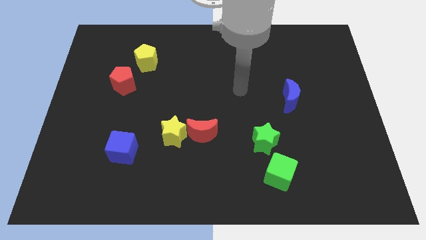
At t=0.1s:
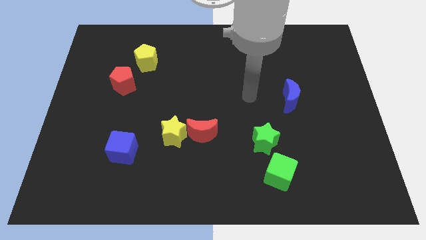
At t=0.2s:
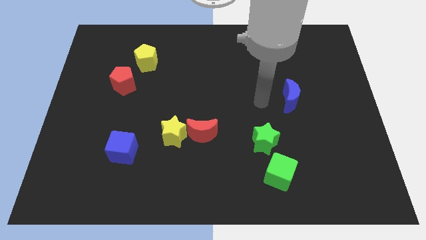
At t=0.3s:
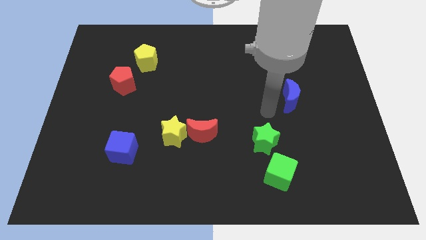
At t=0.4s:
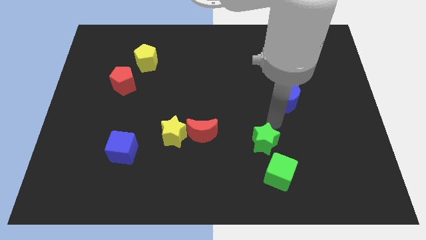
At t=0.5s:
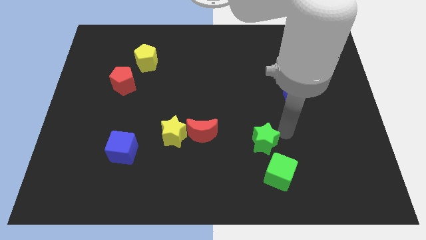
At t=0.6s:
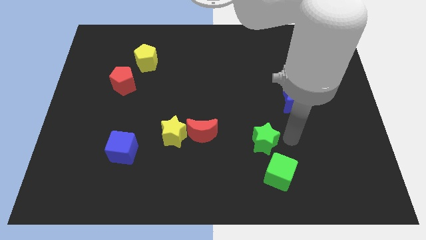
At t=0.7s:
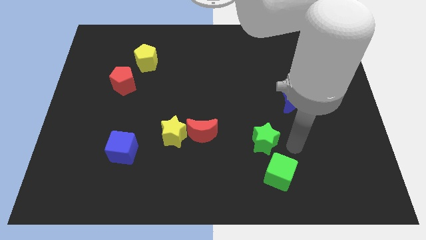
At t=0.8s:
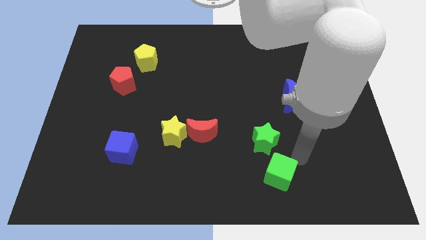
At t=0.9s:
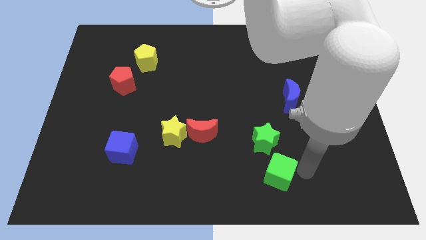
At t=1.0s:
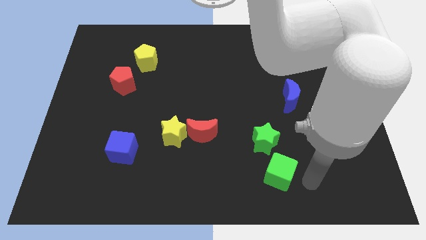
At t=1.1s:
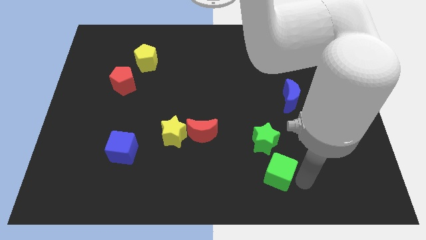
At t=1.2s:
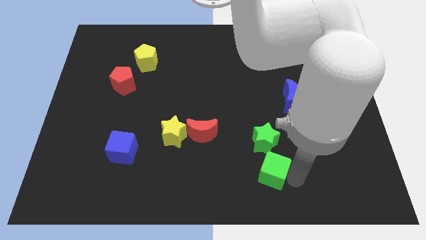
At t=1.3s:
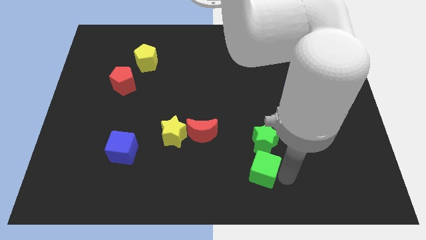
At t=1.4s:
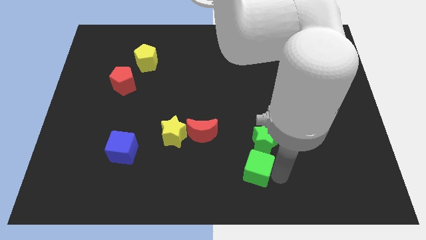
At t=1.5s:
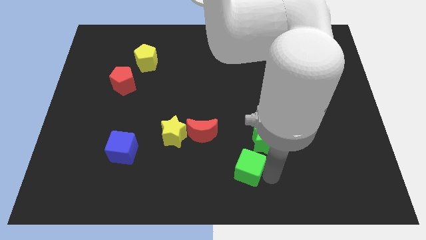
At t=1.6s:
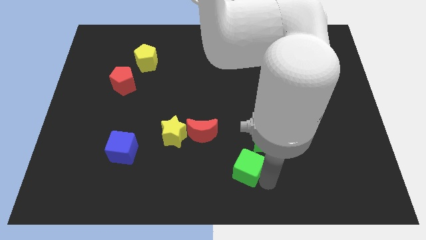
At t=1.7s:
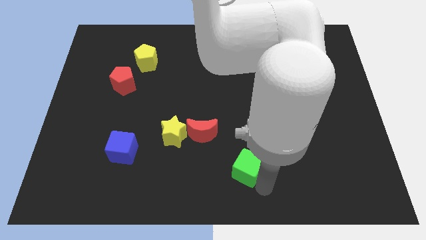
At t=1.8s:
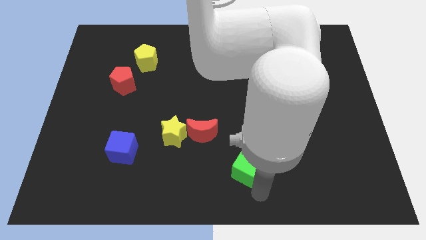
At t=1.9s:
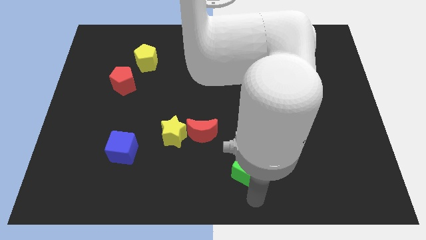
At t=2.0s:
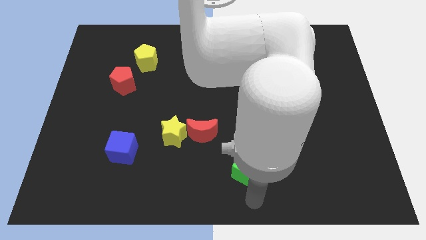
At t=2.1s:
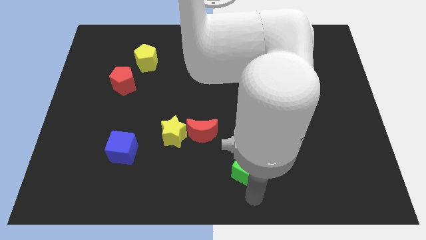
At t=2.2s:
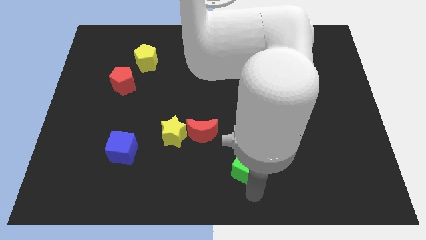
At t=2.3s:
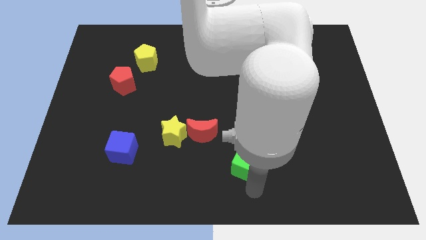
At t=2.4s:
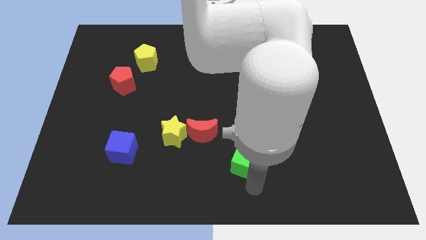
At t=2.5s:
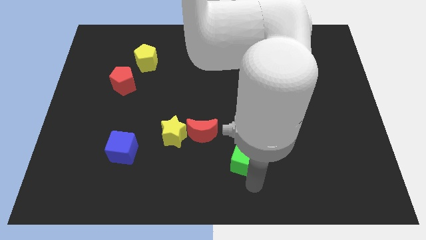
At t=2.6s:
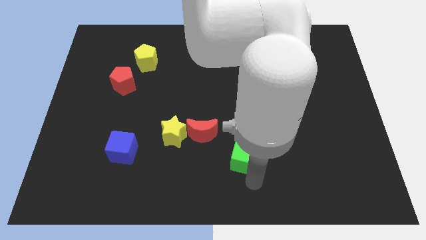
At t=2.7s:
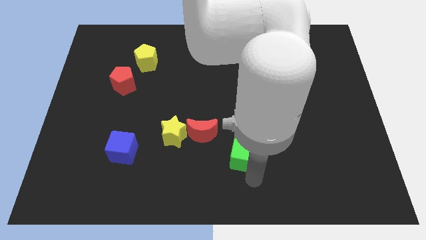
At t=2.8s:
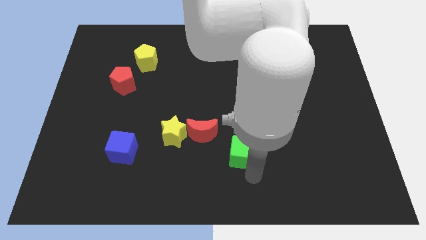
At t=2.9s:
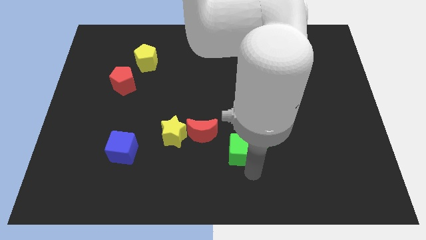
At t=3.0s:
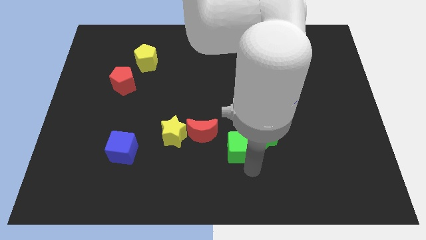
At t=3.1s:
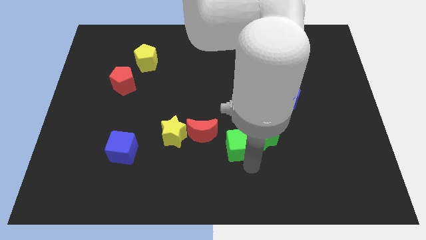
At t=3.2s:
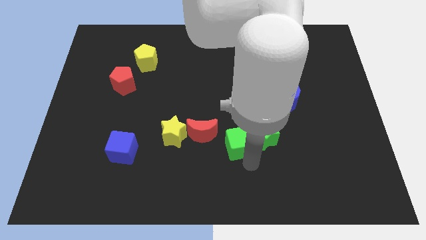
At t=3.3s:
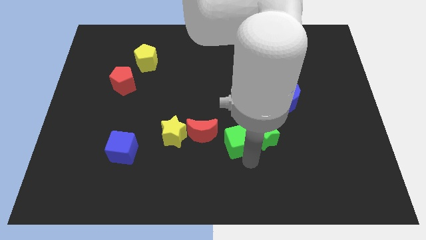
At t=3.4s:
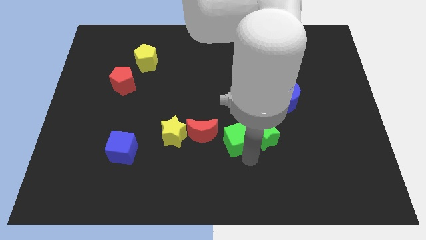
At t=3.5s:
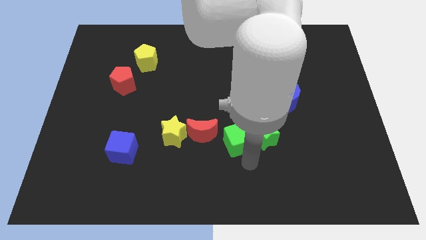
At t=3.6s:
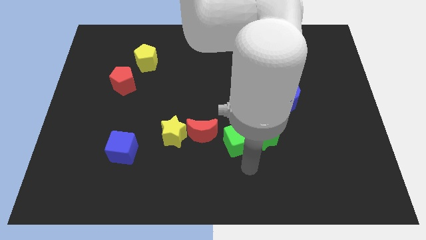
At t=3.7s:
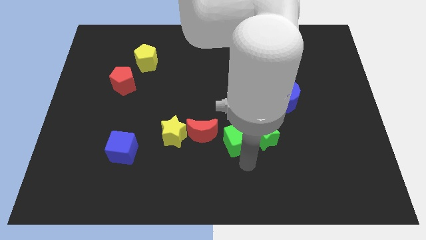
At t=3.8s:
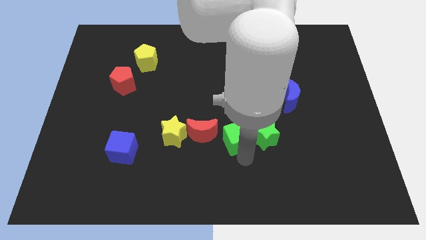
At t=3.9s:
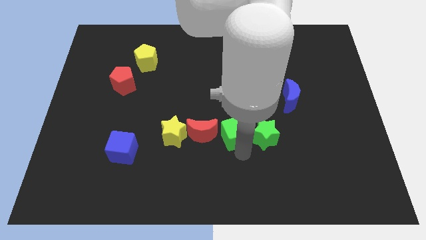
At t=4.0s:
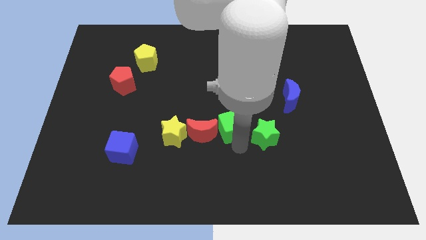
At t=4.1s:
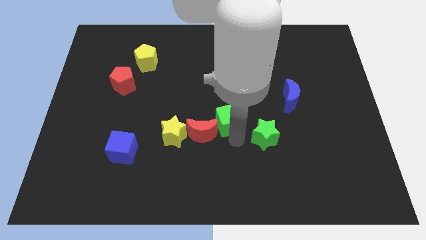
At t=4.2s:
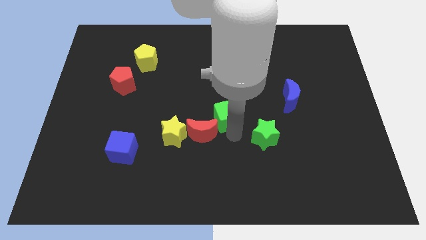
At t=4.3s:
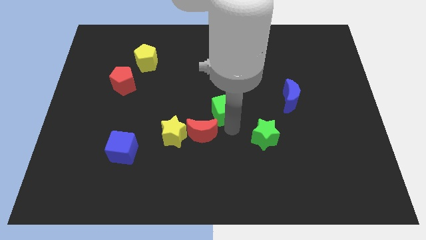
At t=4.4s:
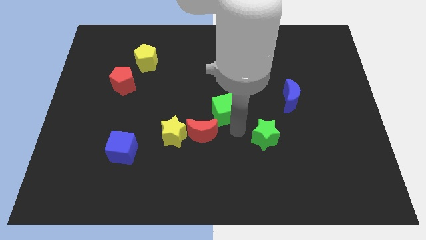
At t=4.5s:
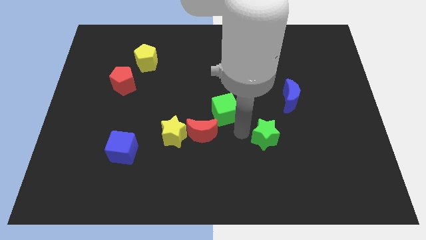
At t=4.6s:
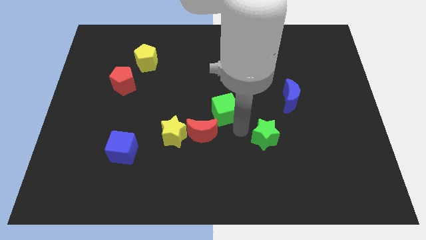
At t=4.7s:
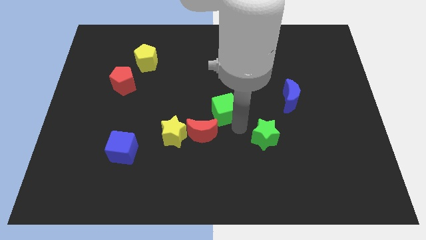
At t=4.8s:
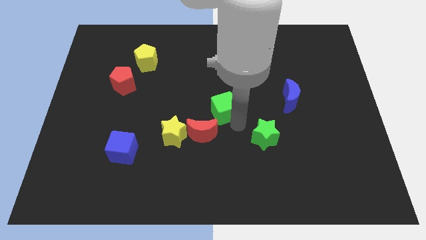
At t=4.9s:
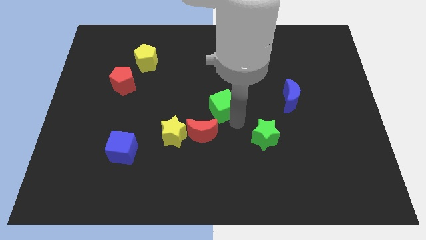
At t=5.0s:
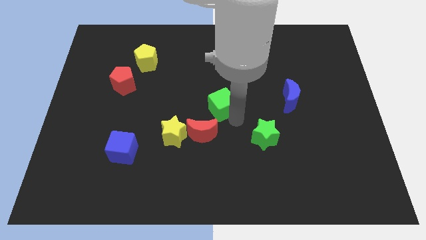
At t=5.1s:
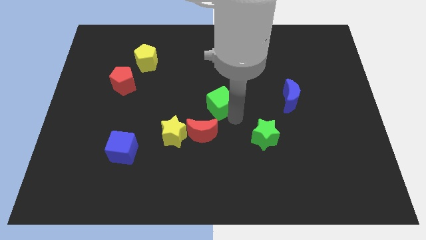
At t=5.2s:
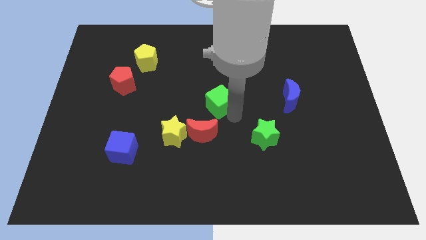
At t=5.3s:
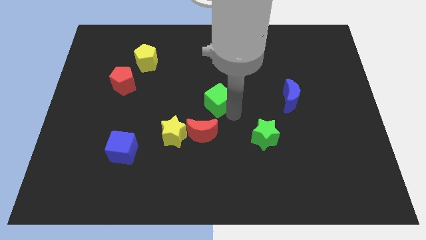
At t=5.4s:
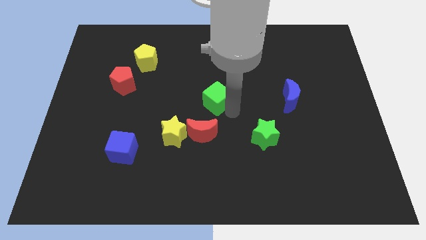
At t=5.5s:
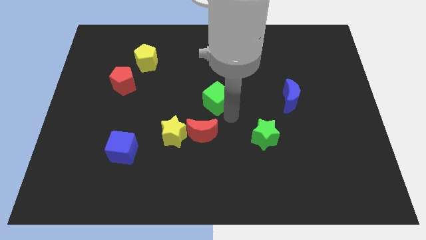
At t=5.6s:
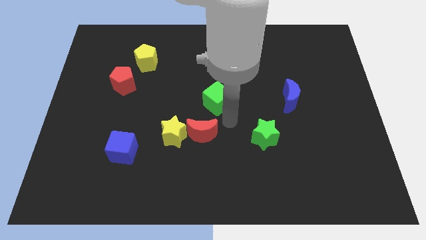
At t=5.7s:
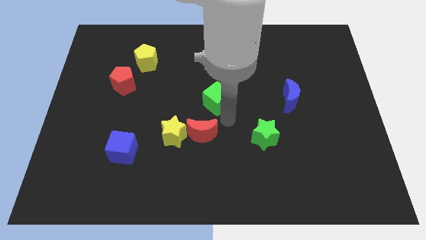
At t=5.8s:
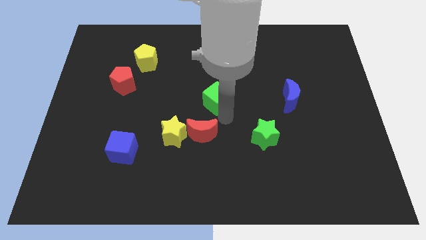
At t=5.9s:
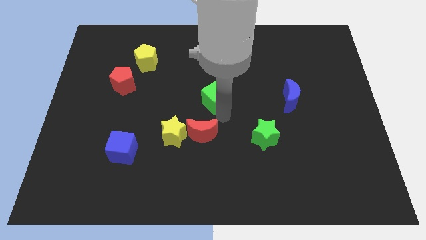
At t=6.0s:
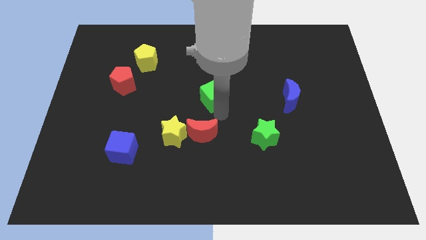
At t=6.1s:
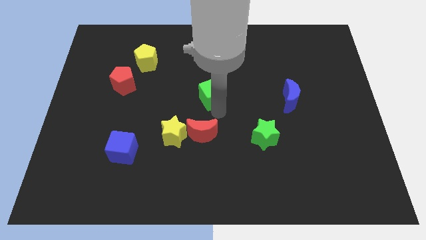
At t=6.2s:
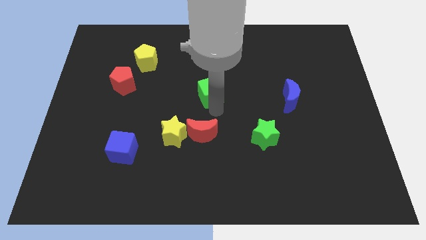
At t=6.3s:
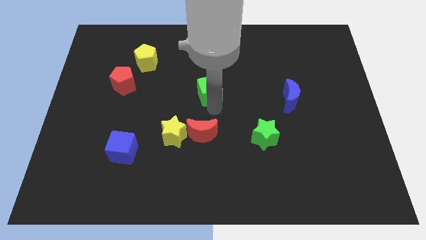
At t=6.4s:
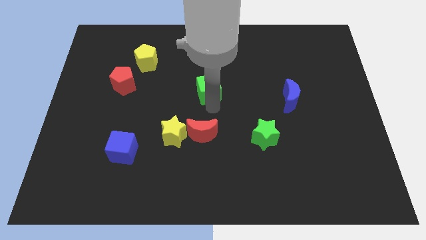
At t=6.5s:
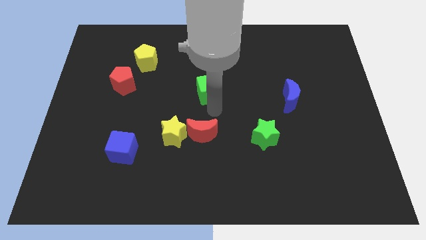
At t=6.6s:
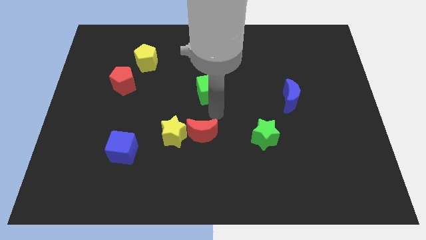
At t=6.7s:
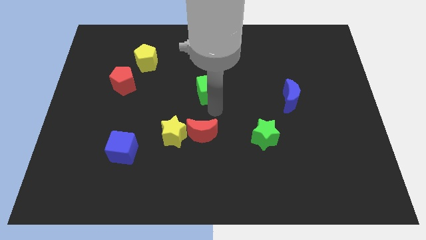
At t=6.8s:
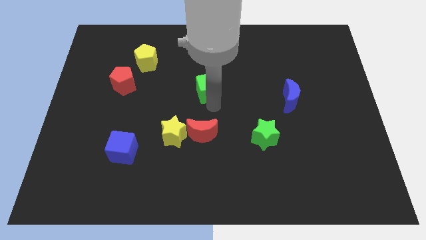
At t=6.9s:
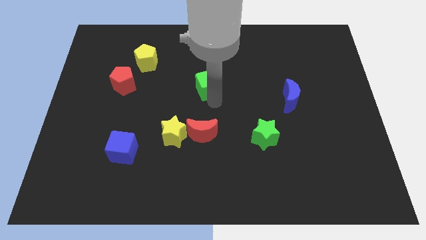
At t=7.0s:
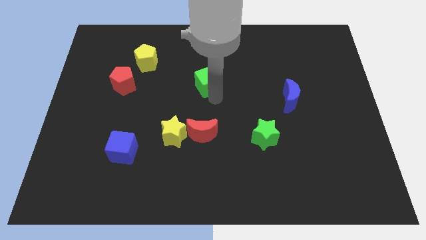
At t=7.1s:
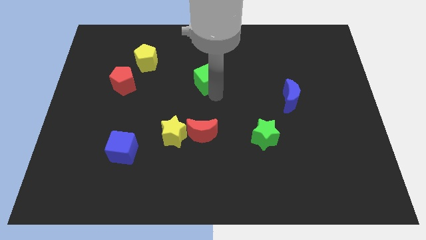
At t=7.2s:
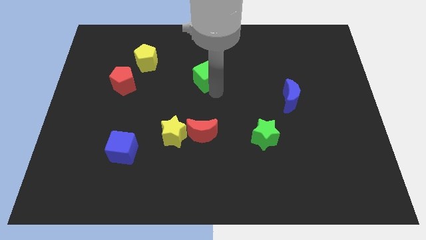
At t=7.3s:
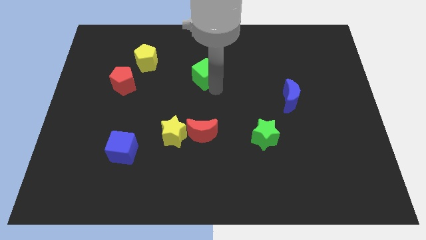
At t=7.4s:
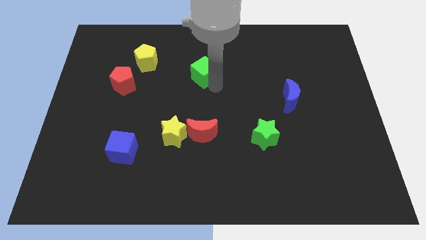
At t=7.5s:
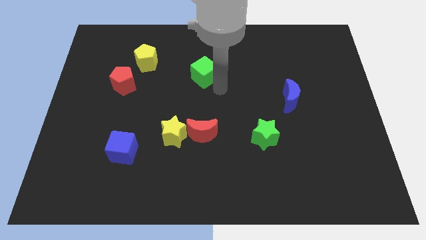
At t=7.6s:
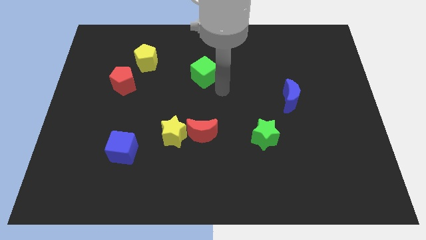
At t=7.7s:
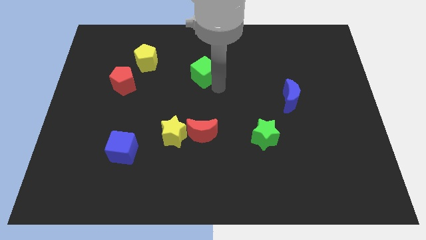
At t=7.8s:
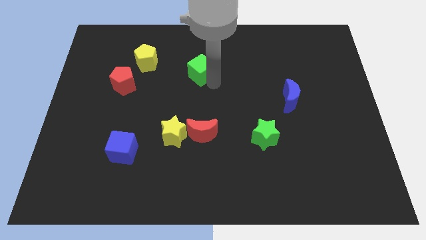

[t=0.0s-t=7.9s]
push the green cube right of the yellow pentagon
